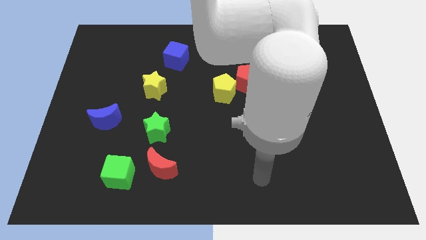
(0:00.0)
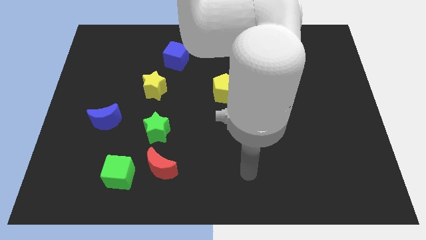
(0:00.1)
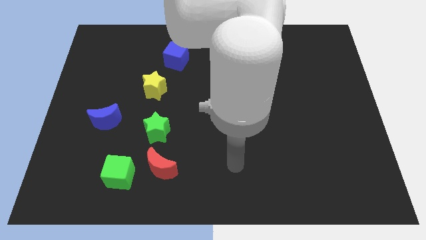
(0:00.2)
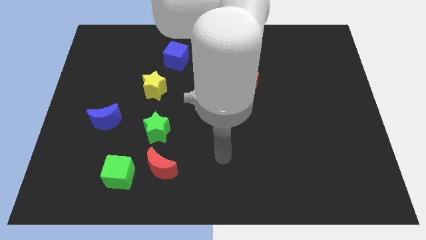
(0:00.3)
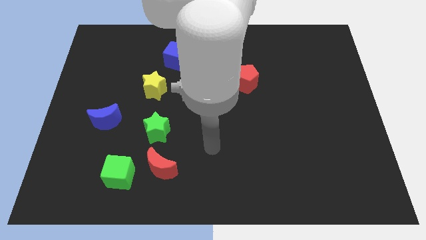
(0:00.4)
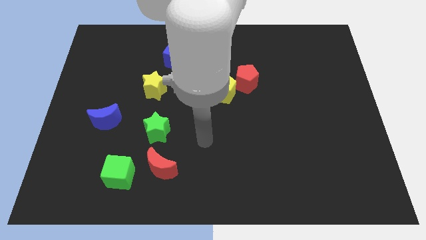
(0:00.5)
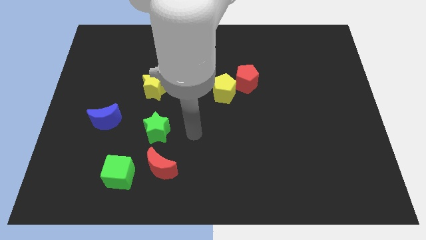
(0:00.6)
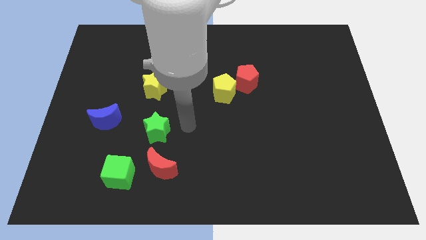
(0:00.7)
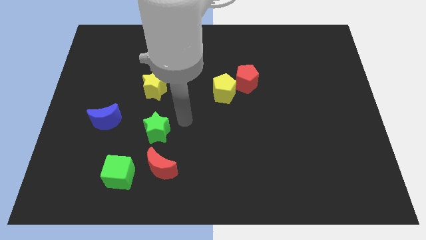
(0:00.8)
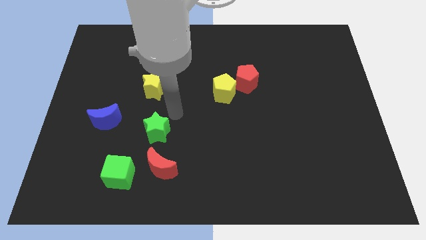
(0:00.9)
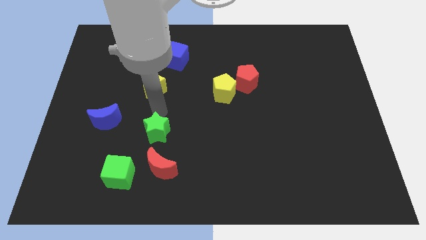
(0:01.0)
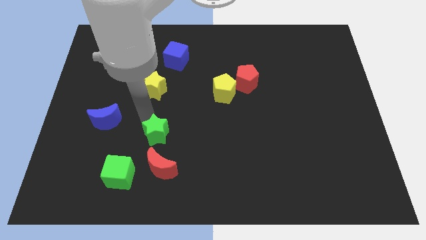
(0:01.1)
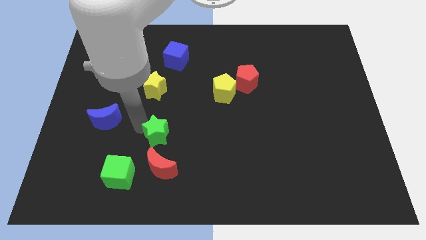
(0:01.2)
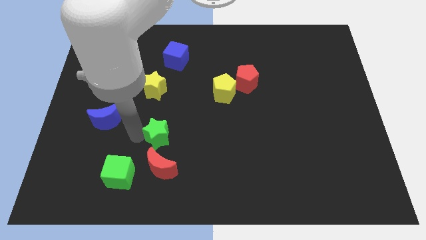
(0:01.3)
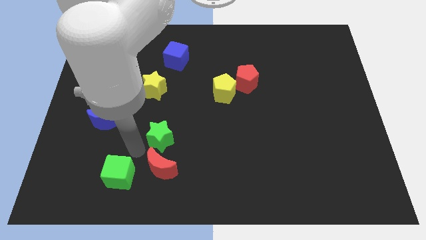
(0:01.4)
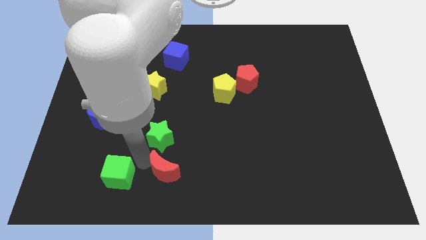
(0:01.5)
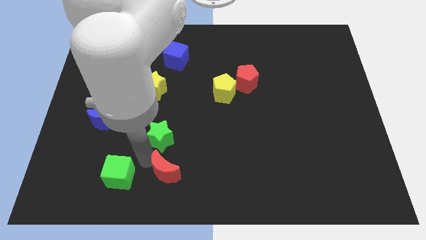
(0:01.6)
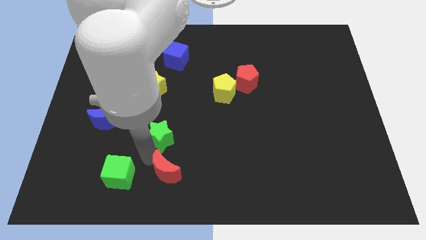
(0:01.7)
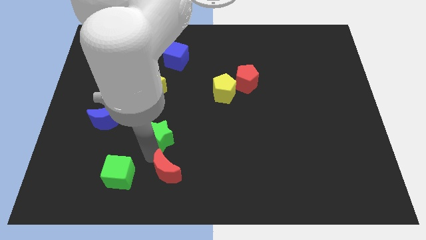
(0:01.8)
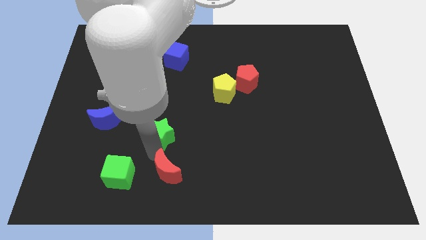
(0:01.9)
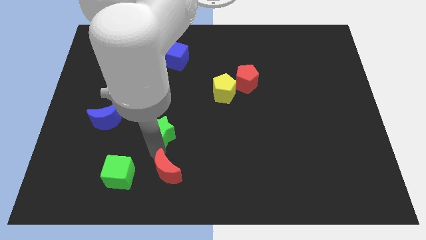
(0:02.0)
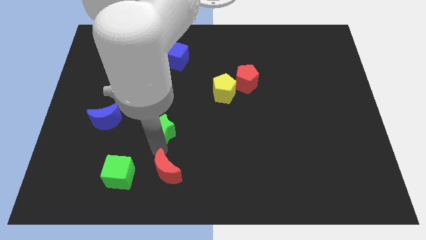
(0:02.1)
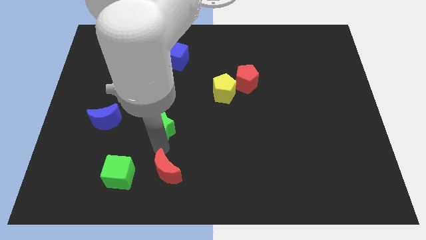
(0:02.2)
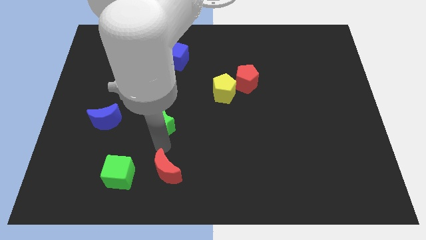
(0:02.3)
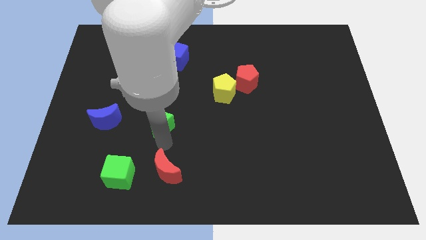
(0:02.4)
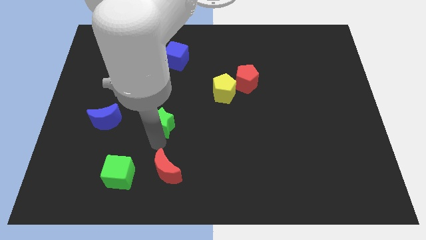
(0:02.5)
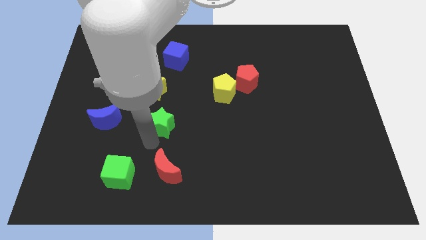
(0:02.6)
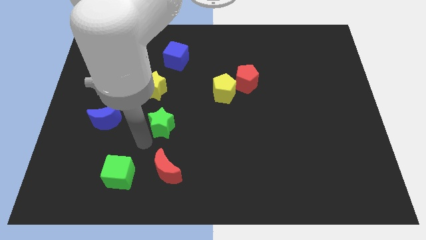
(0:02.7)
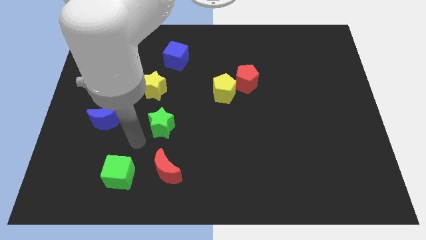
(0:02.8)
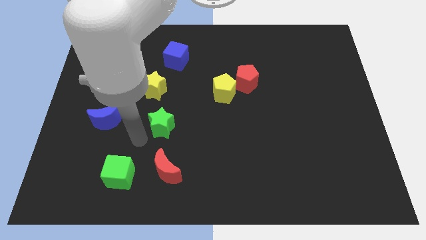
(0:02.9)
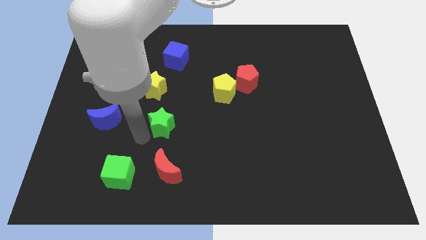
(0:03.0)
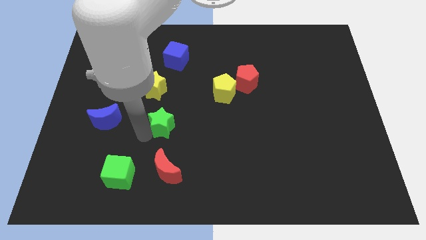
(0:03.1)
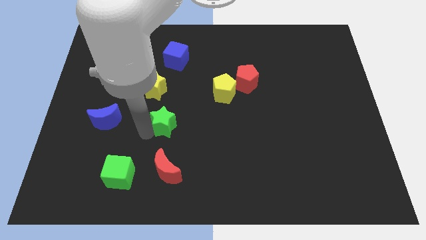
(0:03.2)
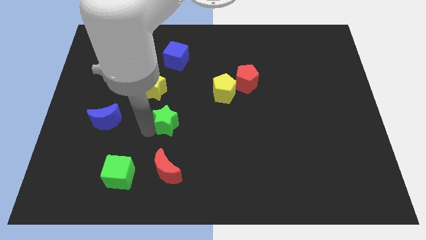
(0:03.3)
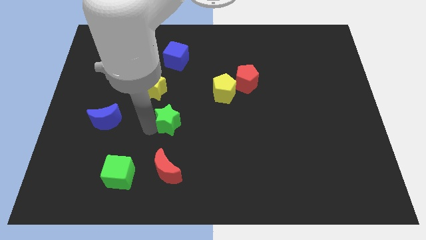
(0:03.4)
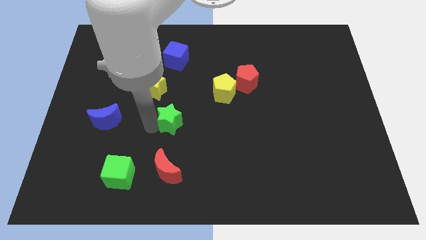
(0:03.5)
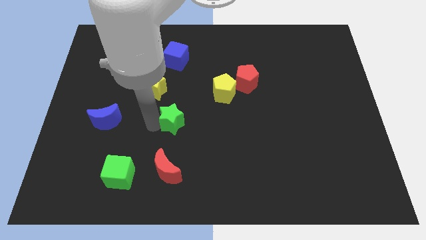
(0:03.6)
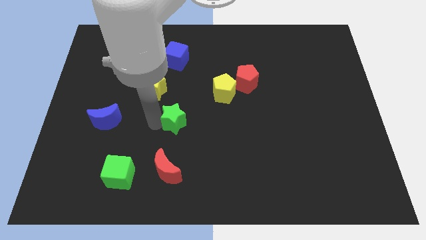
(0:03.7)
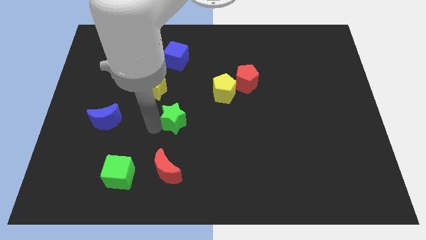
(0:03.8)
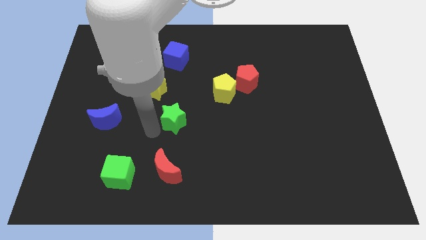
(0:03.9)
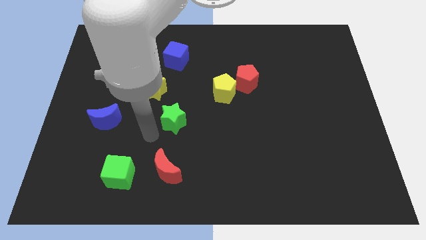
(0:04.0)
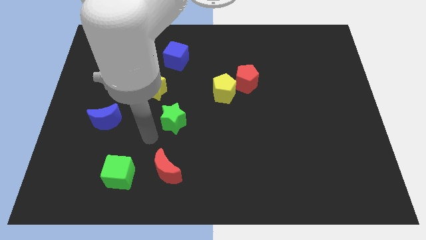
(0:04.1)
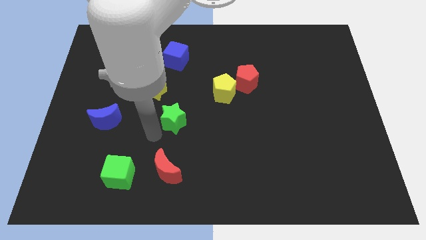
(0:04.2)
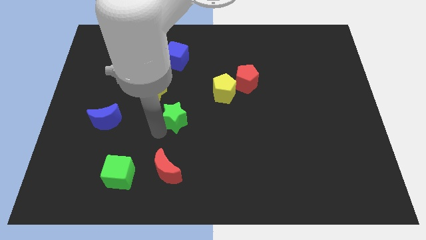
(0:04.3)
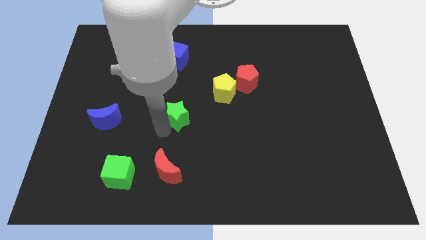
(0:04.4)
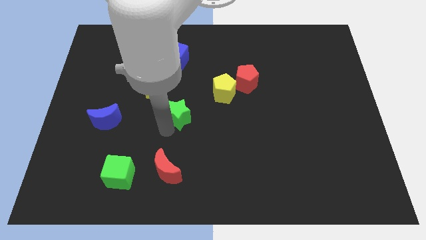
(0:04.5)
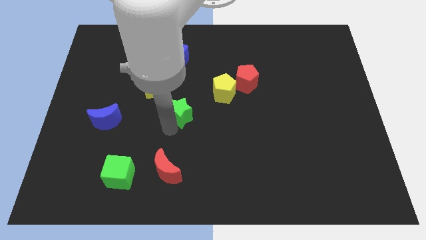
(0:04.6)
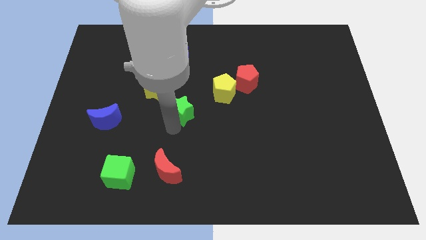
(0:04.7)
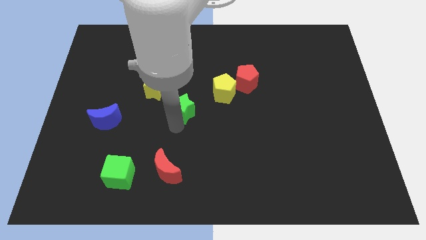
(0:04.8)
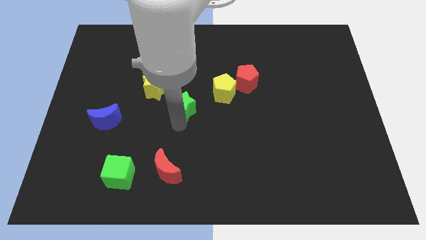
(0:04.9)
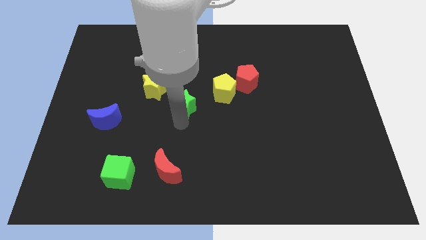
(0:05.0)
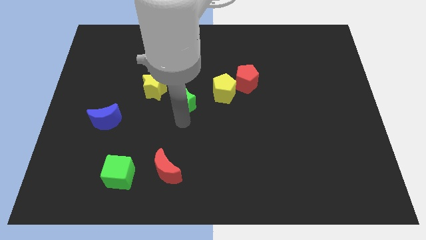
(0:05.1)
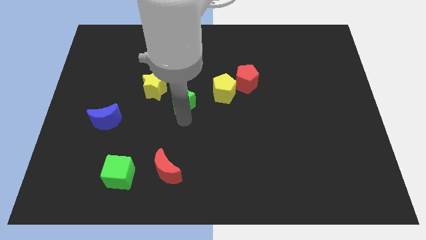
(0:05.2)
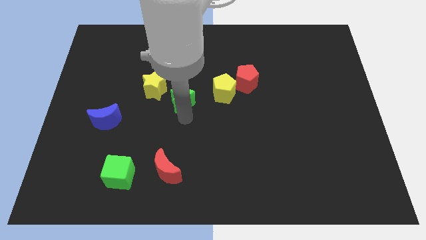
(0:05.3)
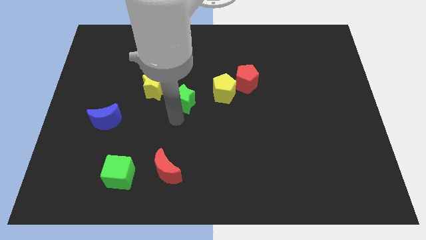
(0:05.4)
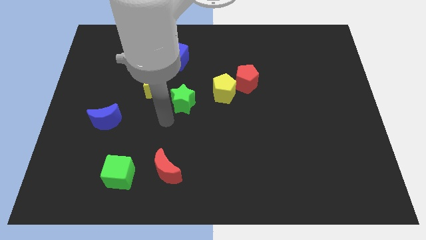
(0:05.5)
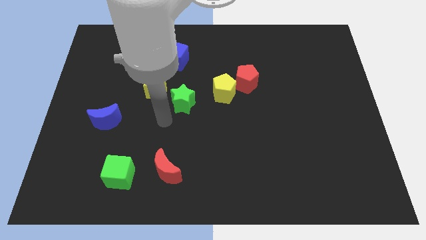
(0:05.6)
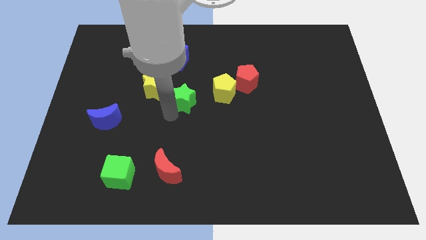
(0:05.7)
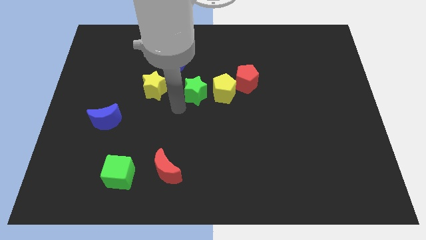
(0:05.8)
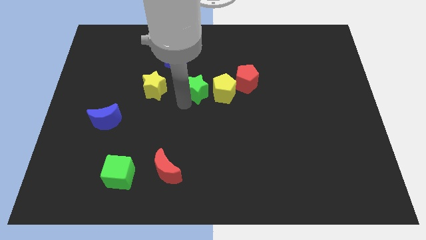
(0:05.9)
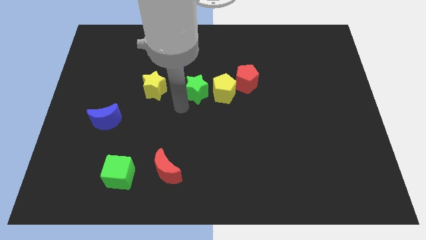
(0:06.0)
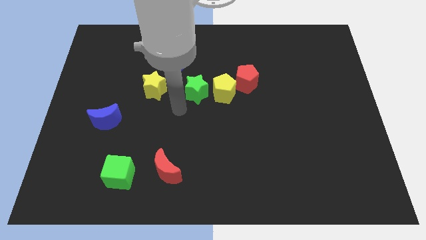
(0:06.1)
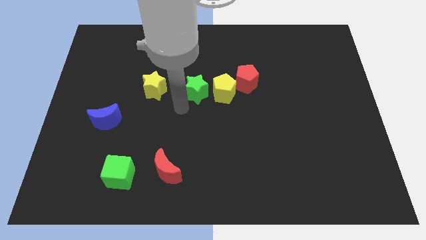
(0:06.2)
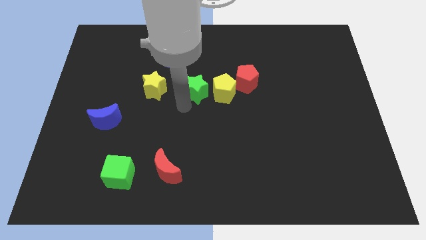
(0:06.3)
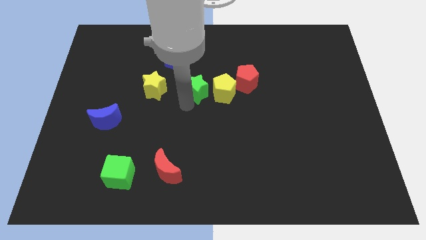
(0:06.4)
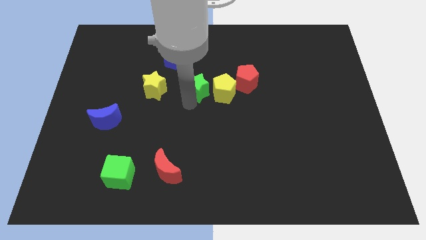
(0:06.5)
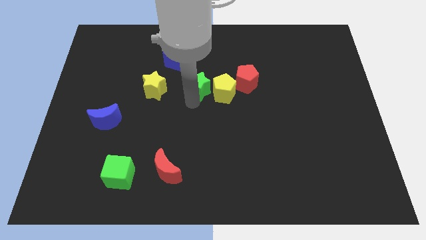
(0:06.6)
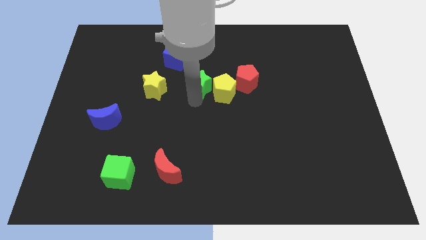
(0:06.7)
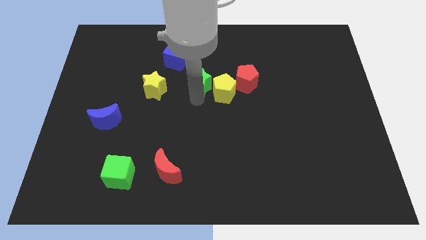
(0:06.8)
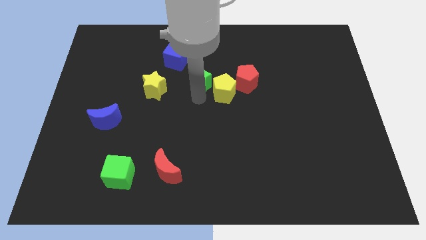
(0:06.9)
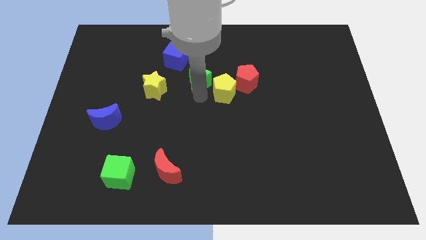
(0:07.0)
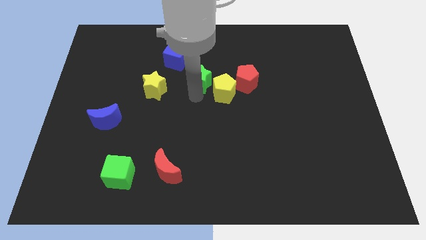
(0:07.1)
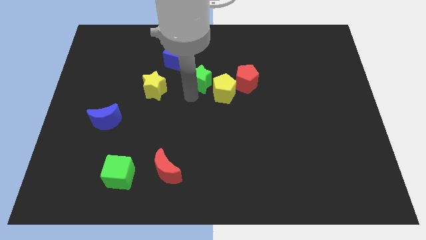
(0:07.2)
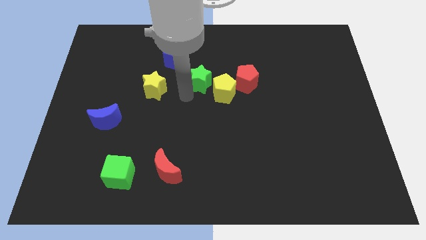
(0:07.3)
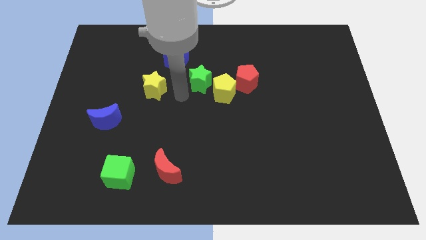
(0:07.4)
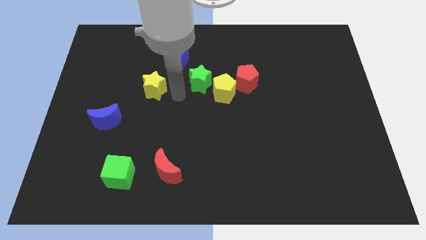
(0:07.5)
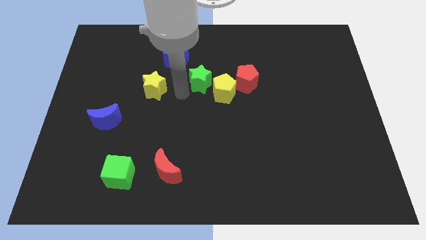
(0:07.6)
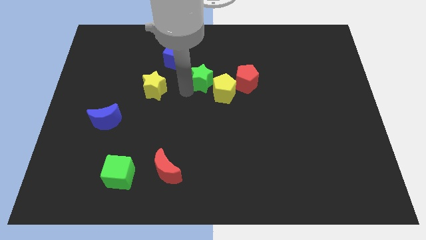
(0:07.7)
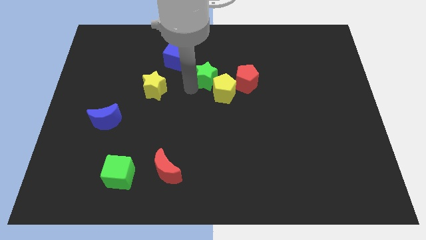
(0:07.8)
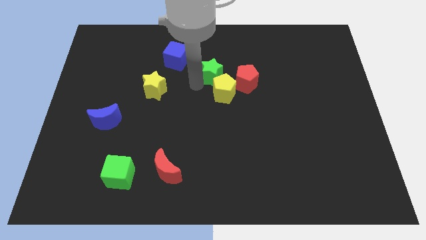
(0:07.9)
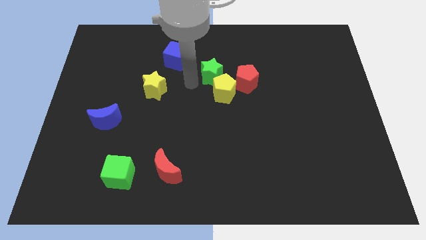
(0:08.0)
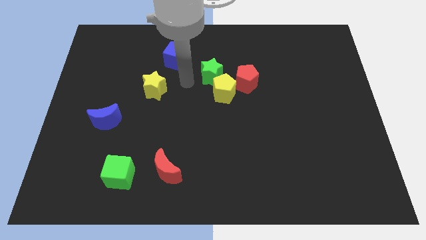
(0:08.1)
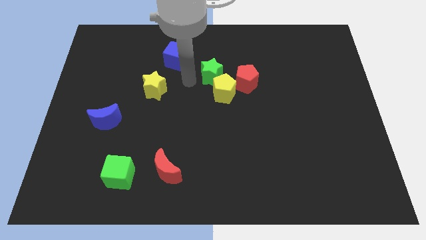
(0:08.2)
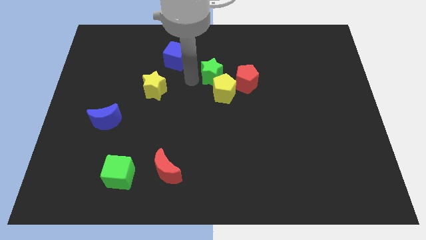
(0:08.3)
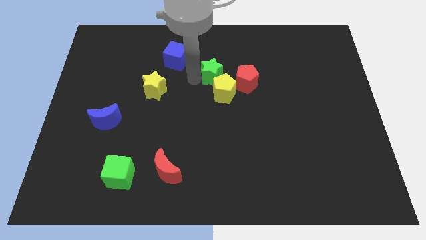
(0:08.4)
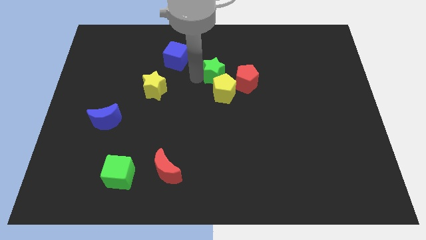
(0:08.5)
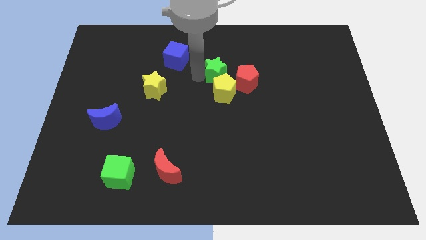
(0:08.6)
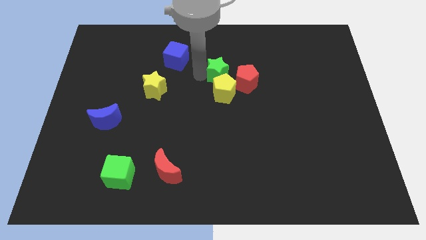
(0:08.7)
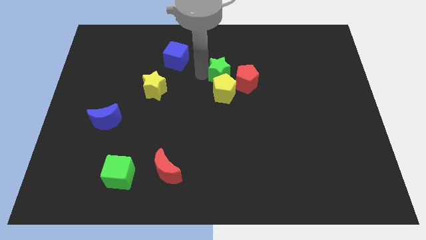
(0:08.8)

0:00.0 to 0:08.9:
put the green star diagonally up and to the right of the yellow pentagon
